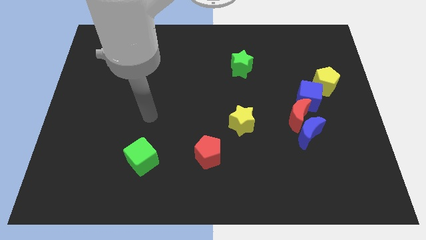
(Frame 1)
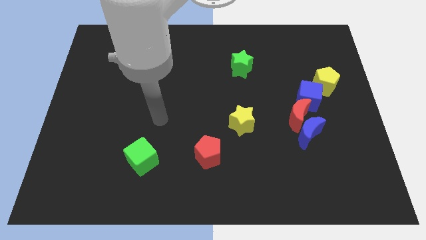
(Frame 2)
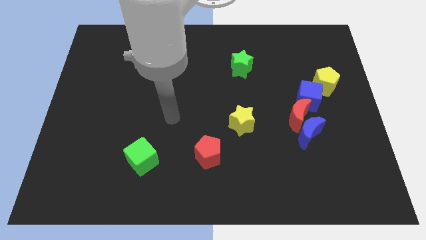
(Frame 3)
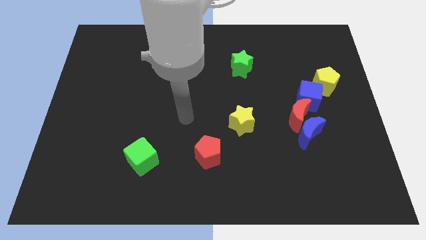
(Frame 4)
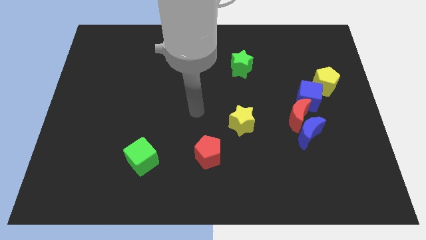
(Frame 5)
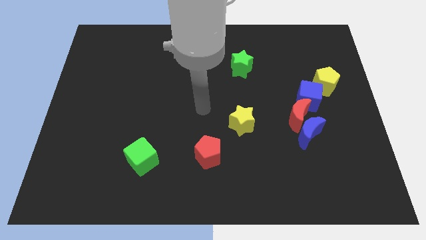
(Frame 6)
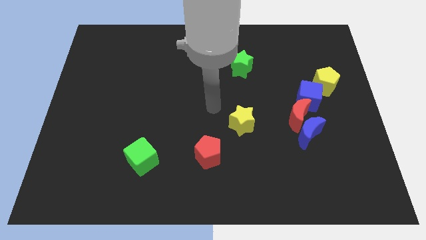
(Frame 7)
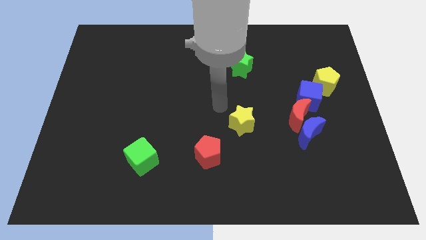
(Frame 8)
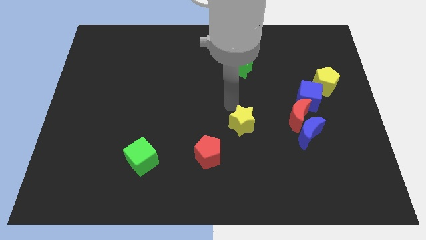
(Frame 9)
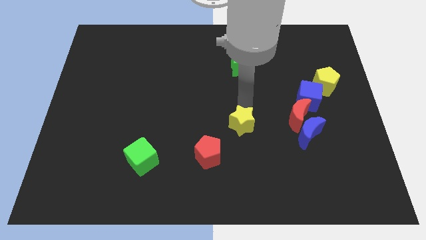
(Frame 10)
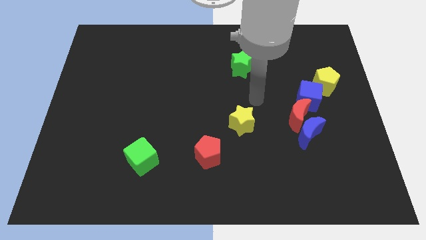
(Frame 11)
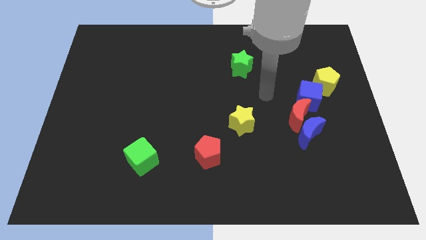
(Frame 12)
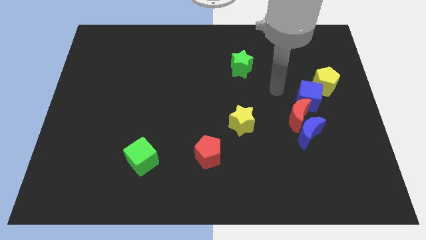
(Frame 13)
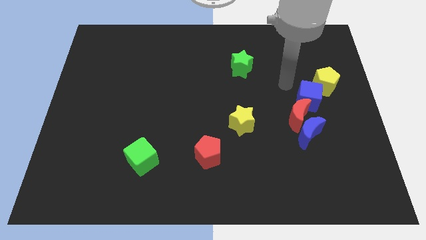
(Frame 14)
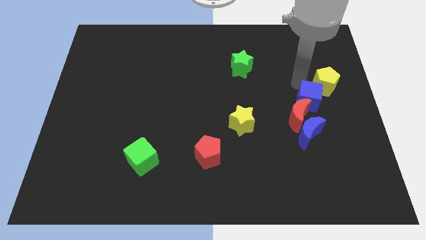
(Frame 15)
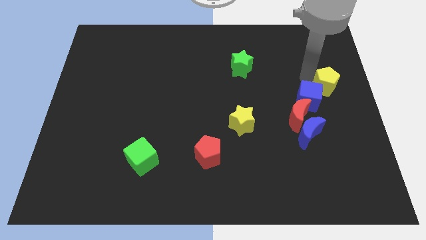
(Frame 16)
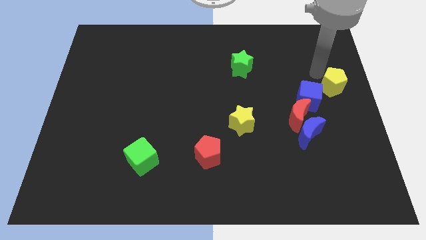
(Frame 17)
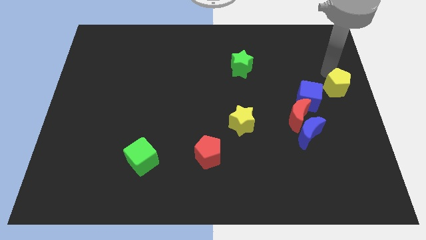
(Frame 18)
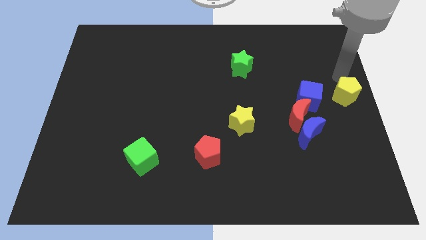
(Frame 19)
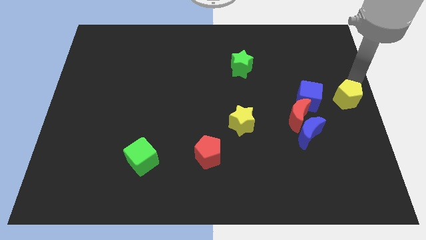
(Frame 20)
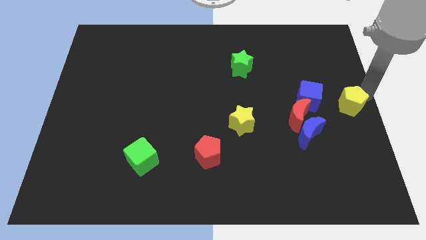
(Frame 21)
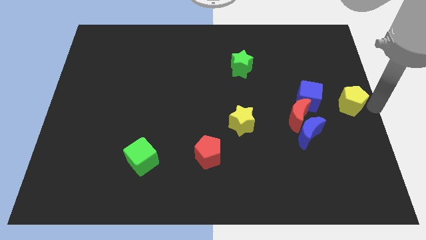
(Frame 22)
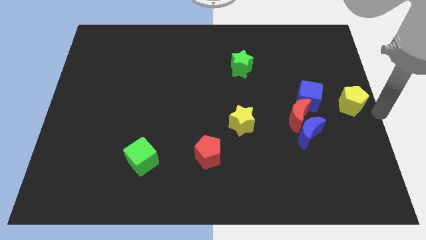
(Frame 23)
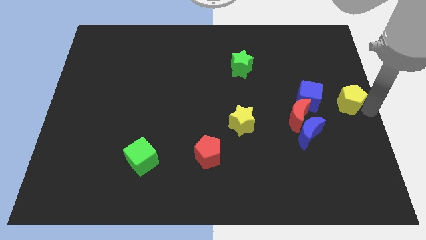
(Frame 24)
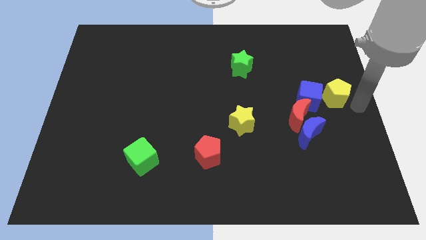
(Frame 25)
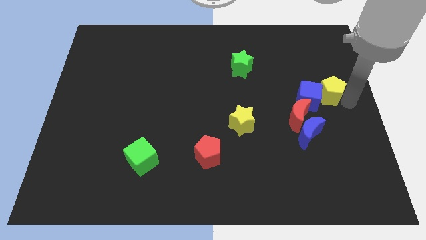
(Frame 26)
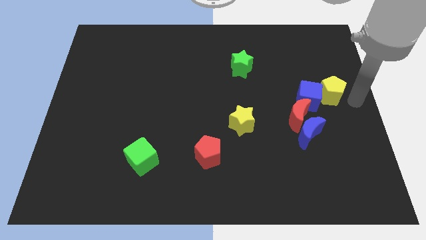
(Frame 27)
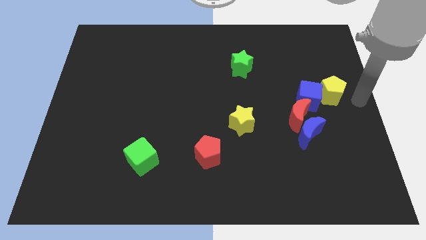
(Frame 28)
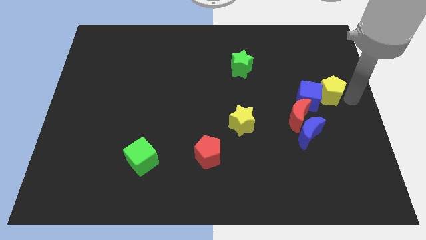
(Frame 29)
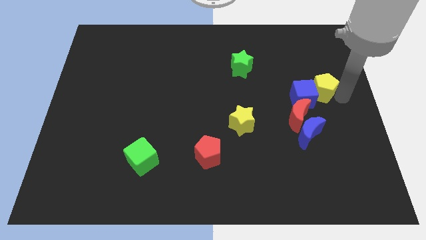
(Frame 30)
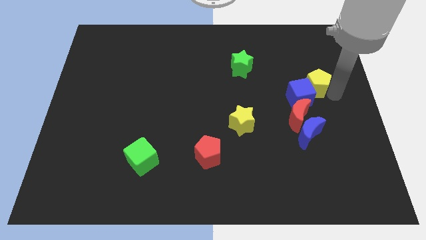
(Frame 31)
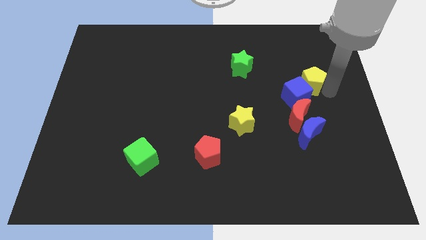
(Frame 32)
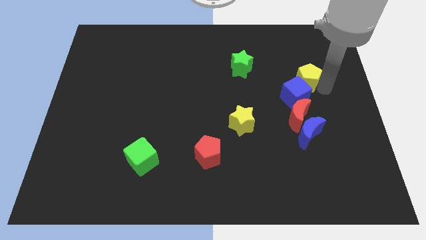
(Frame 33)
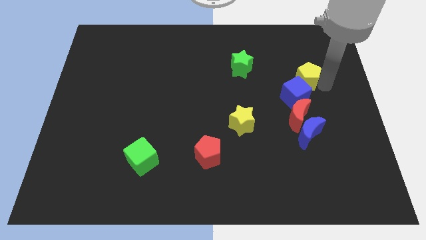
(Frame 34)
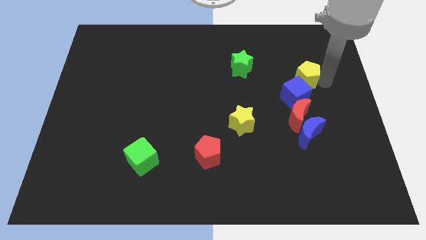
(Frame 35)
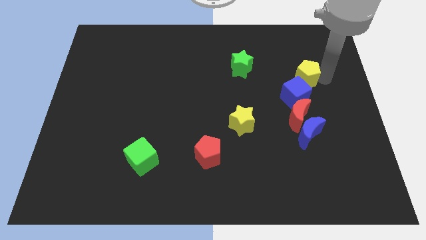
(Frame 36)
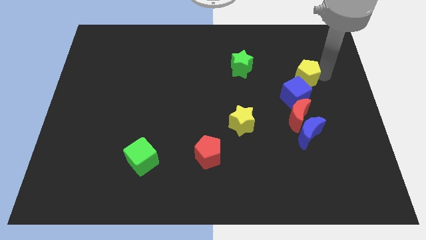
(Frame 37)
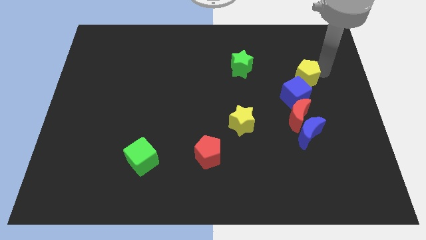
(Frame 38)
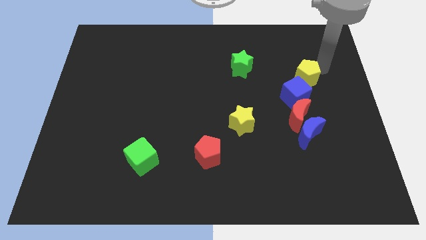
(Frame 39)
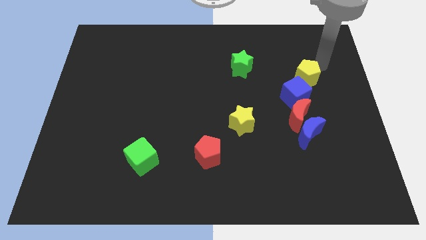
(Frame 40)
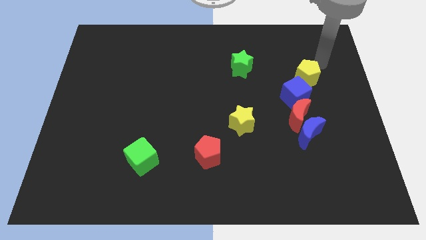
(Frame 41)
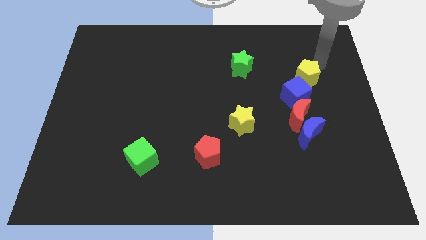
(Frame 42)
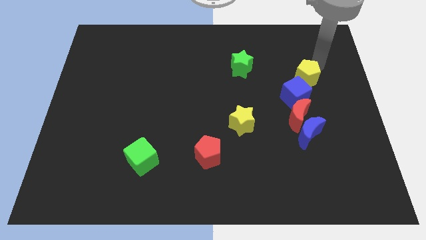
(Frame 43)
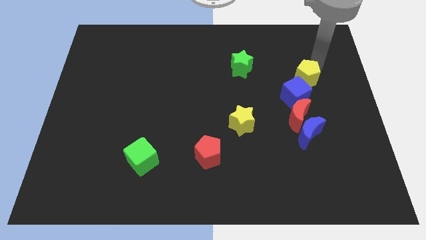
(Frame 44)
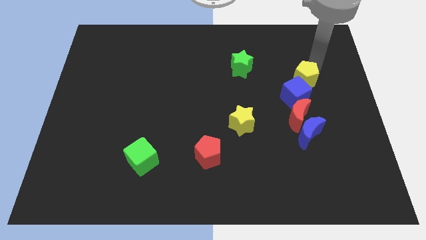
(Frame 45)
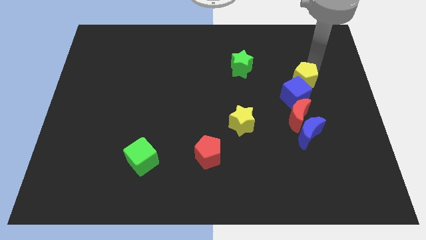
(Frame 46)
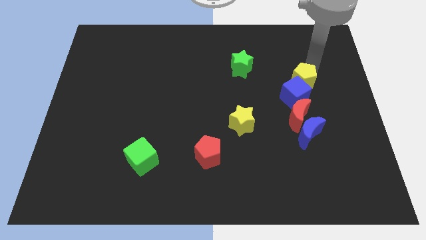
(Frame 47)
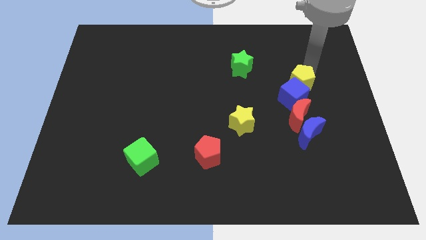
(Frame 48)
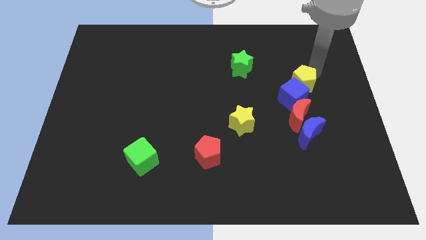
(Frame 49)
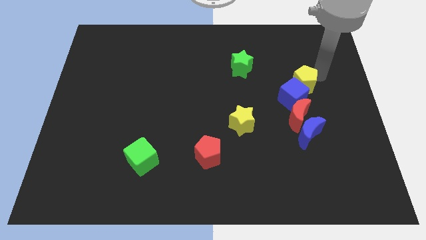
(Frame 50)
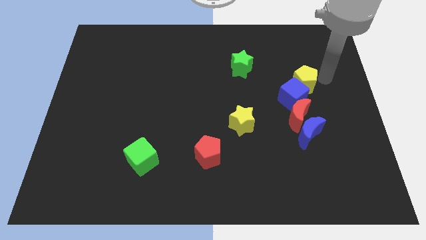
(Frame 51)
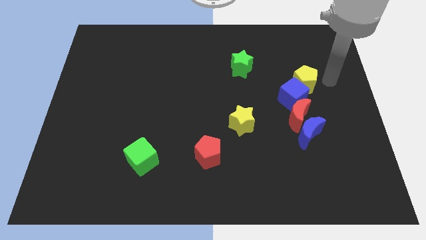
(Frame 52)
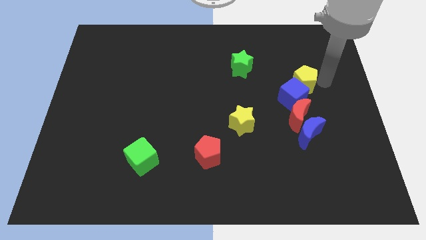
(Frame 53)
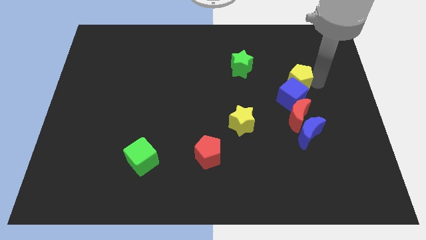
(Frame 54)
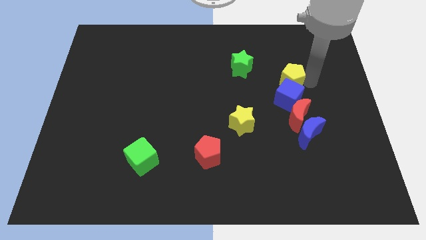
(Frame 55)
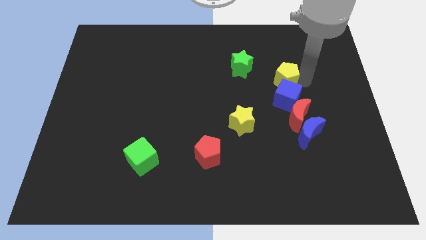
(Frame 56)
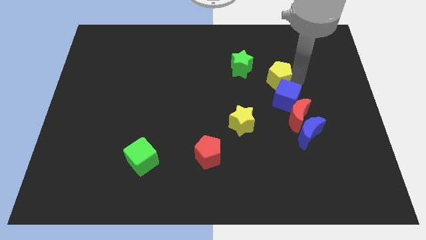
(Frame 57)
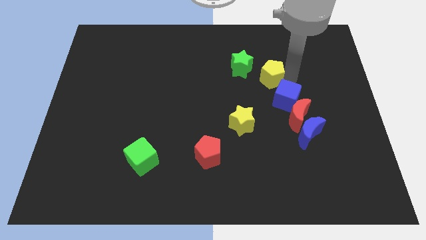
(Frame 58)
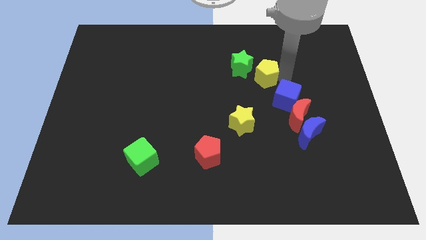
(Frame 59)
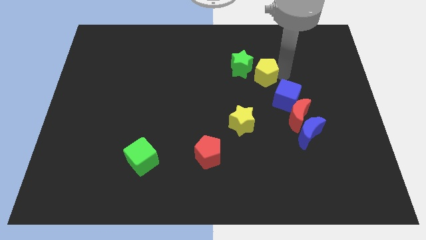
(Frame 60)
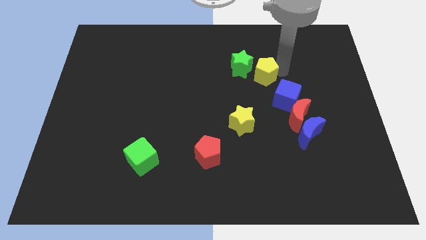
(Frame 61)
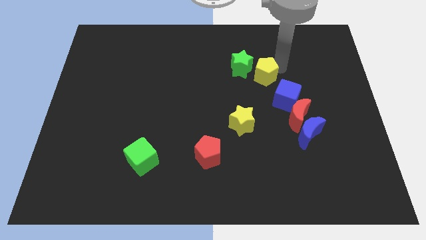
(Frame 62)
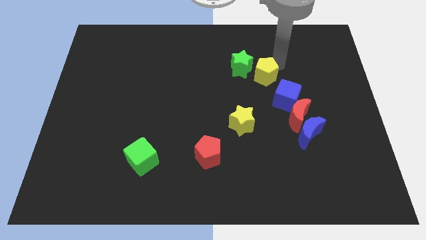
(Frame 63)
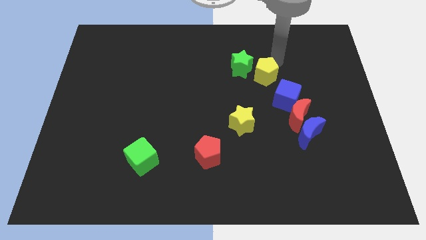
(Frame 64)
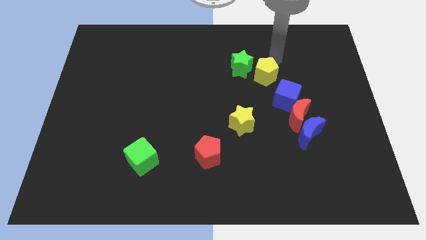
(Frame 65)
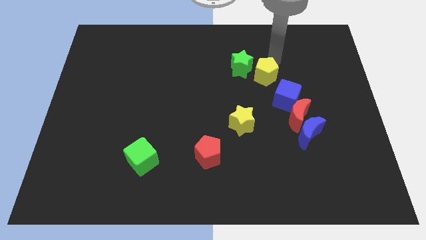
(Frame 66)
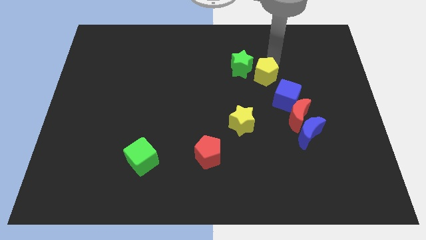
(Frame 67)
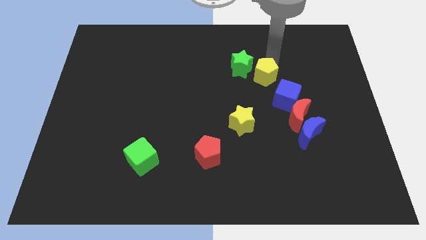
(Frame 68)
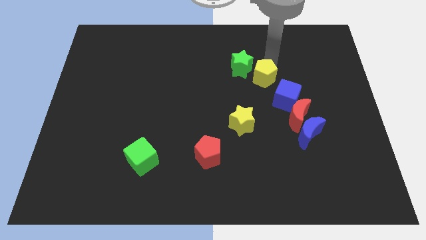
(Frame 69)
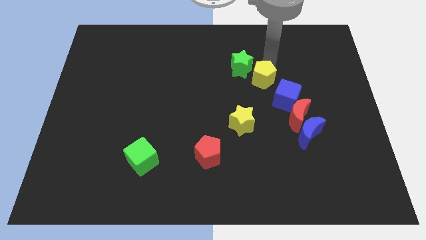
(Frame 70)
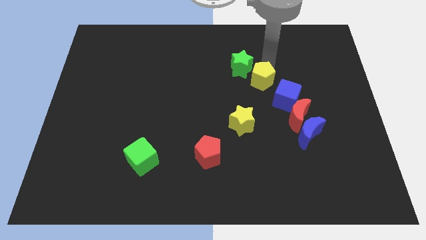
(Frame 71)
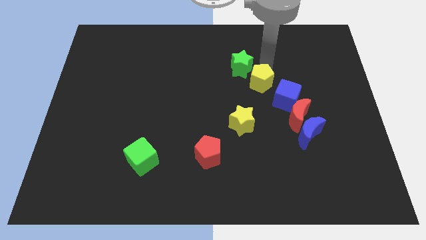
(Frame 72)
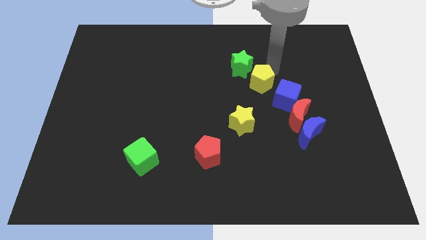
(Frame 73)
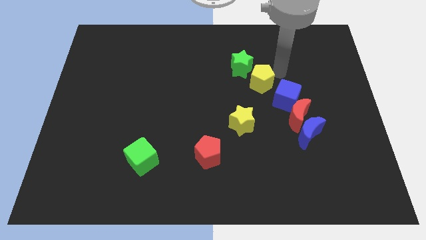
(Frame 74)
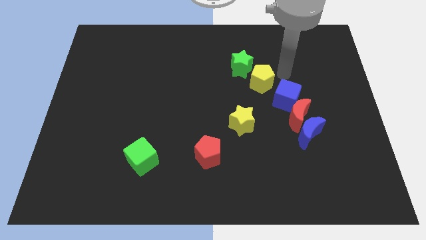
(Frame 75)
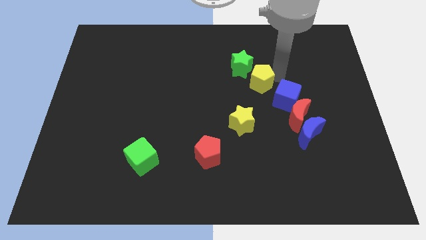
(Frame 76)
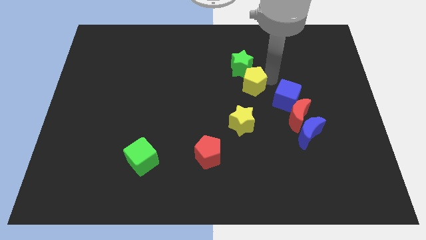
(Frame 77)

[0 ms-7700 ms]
move the yellow pentagon to the center of the board
